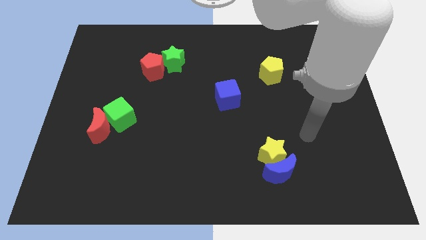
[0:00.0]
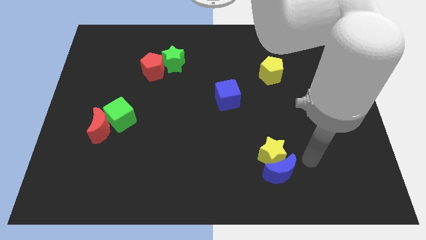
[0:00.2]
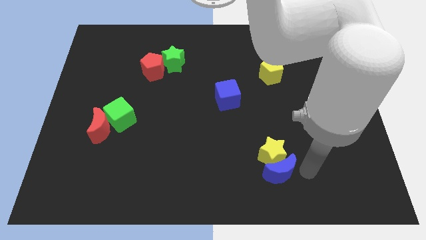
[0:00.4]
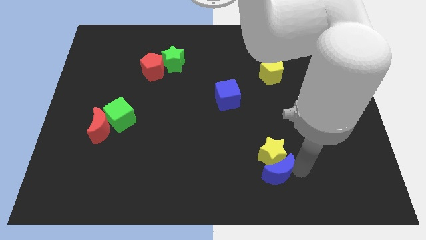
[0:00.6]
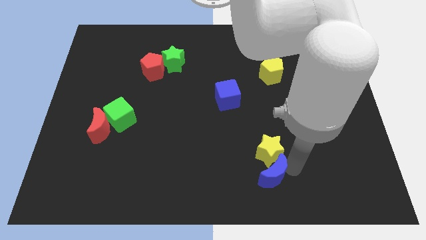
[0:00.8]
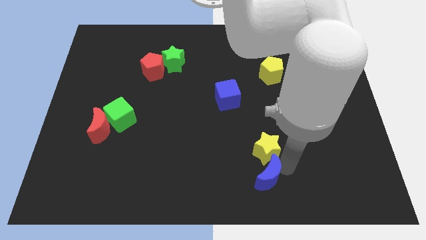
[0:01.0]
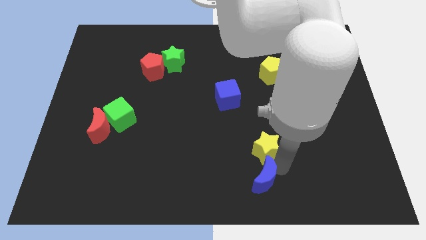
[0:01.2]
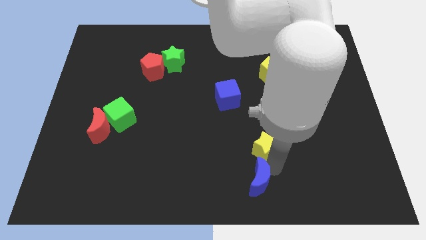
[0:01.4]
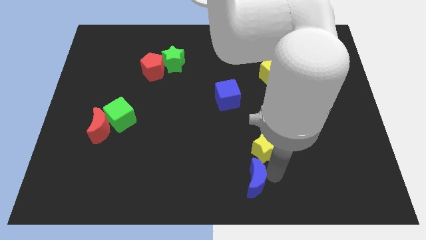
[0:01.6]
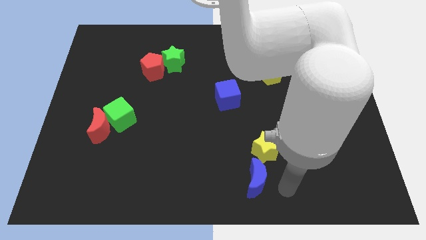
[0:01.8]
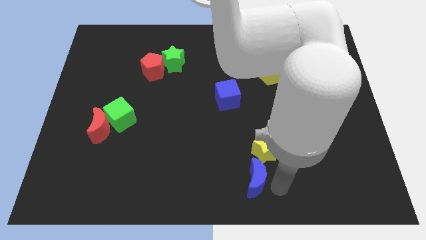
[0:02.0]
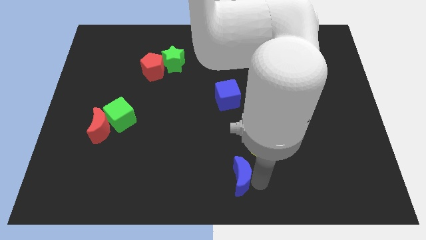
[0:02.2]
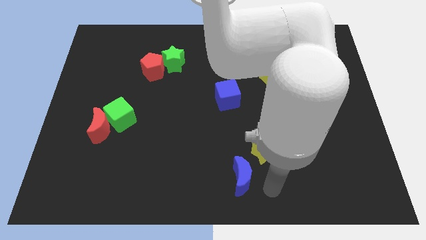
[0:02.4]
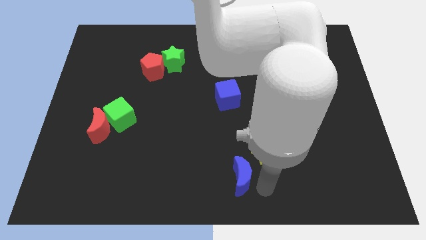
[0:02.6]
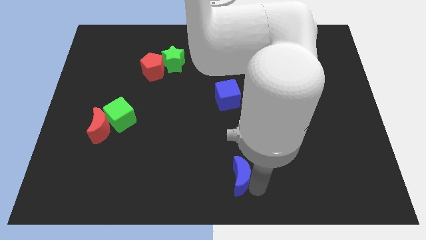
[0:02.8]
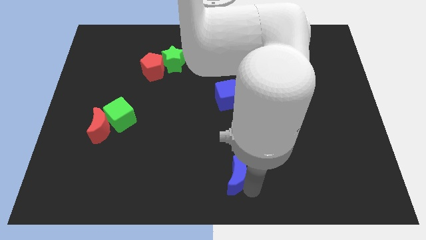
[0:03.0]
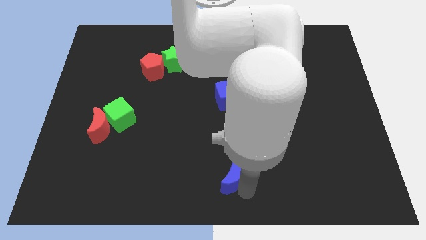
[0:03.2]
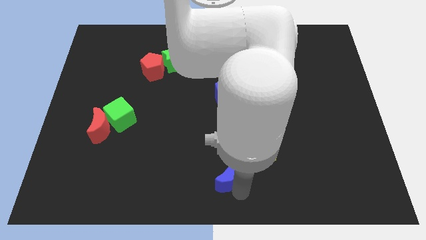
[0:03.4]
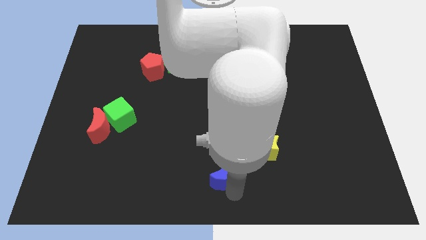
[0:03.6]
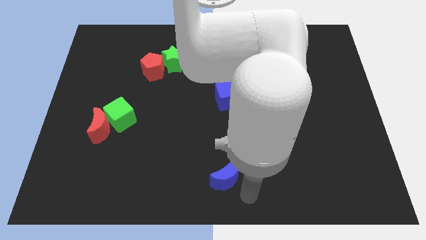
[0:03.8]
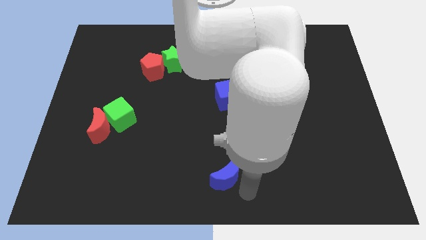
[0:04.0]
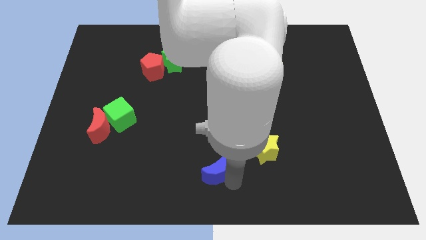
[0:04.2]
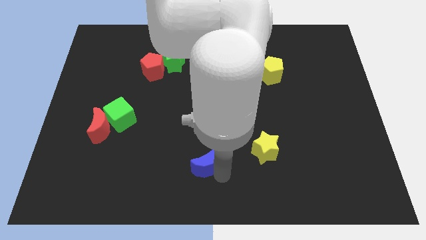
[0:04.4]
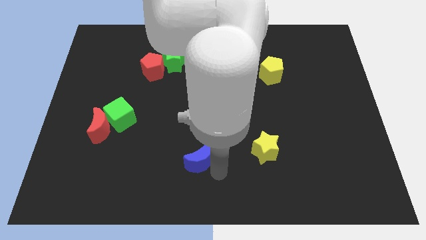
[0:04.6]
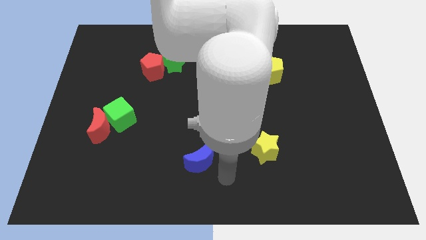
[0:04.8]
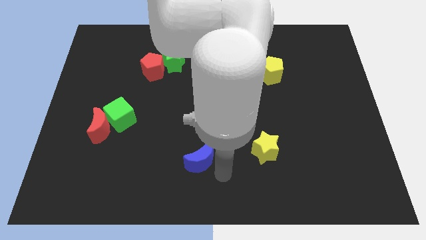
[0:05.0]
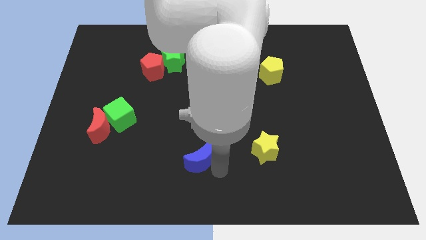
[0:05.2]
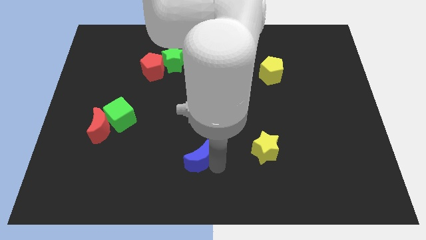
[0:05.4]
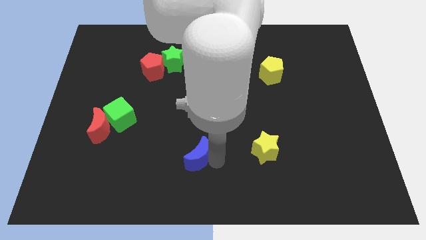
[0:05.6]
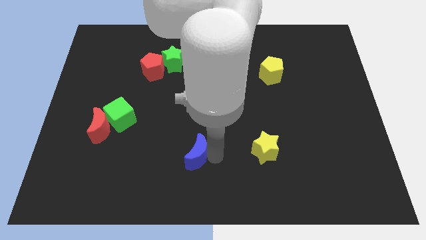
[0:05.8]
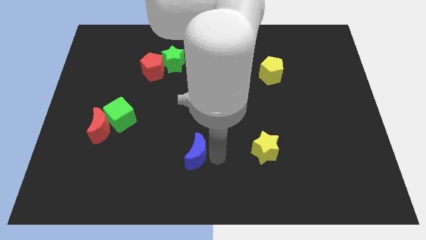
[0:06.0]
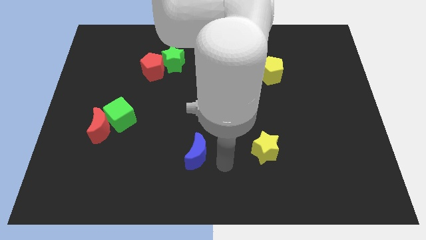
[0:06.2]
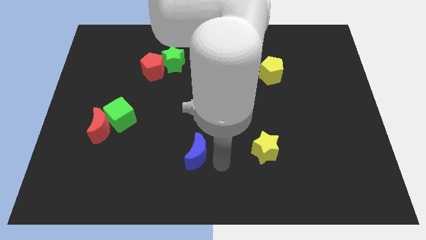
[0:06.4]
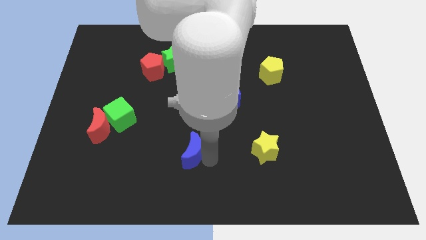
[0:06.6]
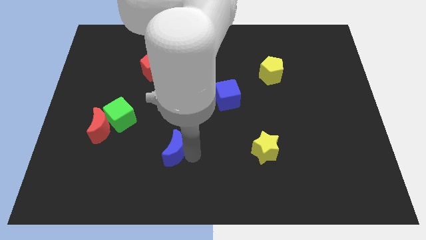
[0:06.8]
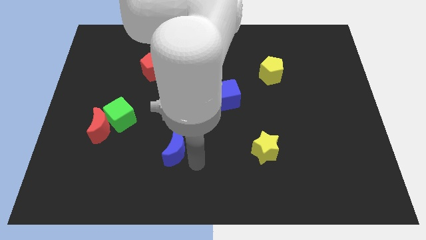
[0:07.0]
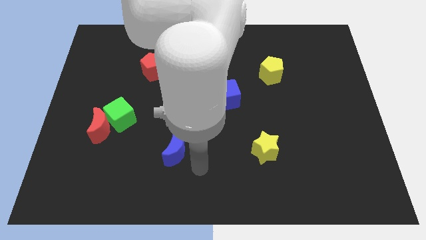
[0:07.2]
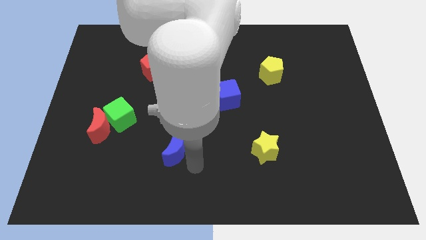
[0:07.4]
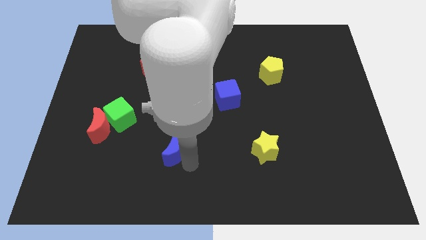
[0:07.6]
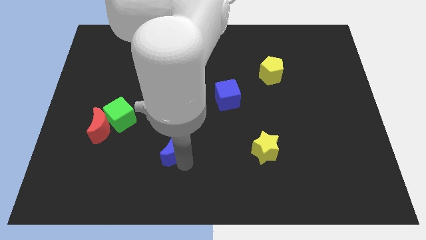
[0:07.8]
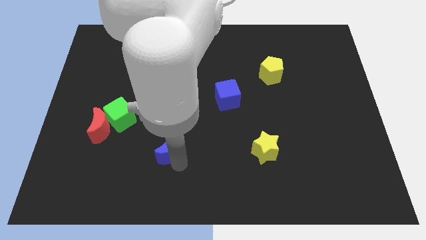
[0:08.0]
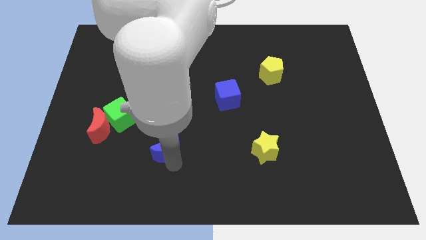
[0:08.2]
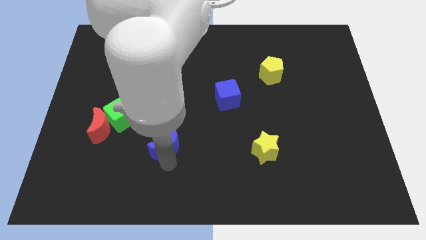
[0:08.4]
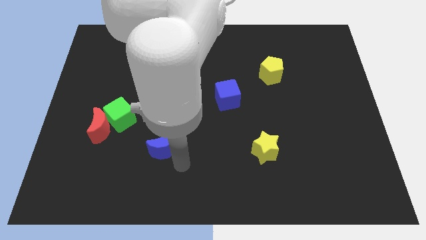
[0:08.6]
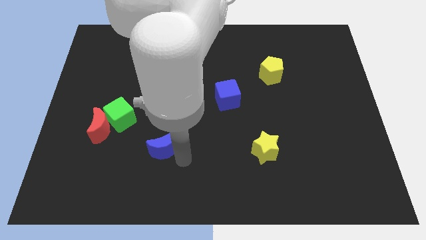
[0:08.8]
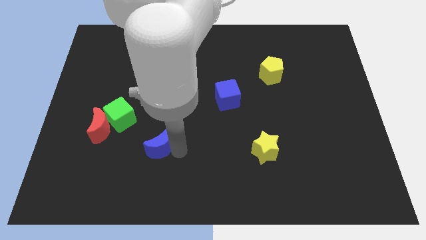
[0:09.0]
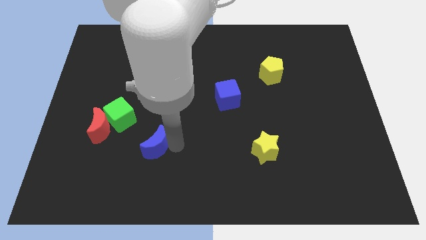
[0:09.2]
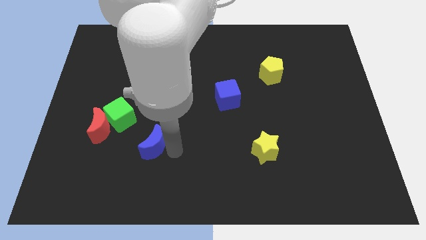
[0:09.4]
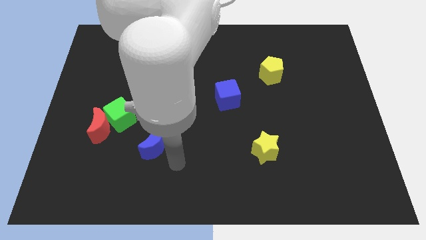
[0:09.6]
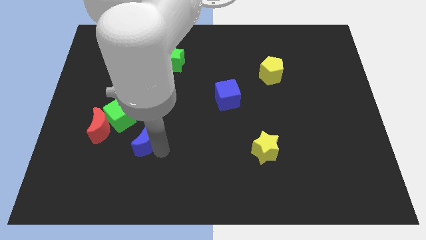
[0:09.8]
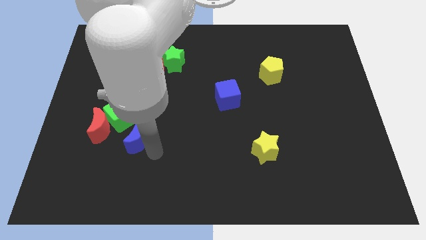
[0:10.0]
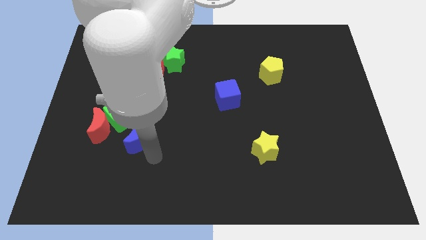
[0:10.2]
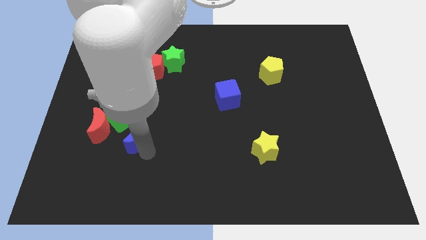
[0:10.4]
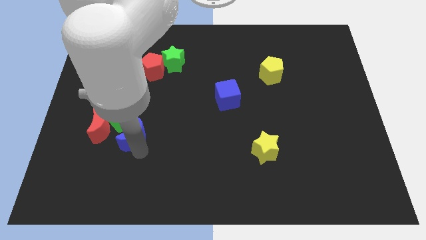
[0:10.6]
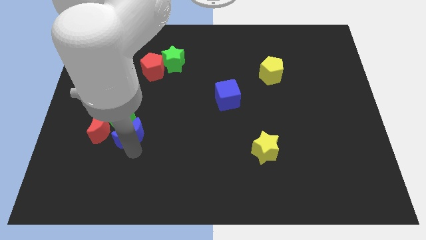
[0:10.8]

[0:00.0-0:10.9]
slide the blue moon to the green cube

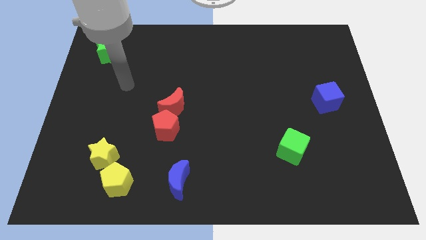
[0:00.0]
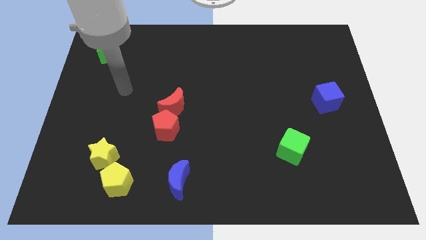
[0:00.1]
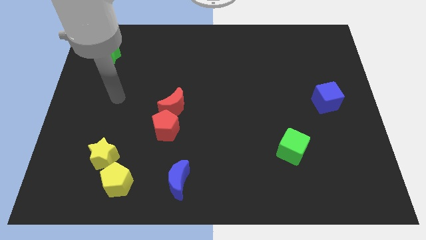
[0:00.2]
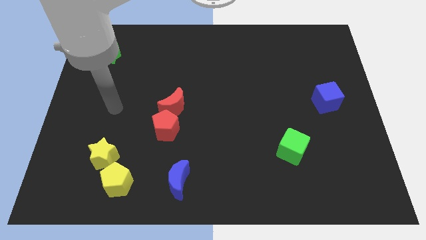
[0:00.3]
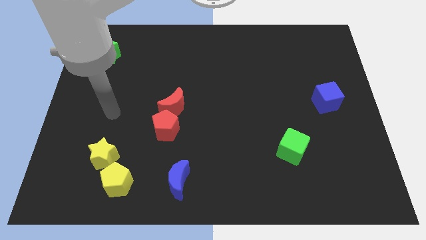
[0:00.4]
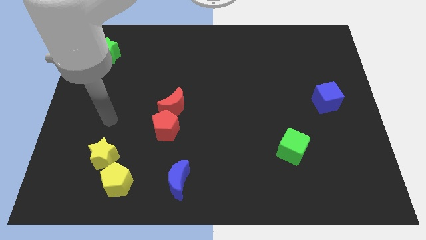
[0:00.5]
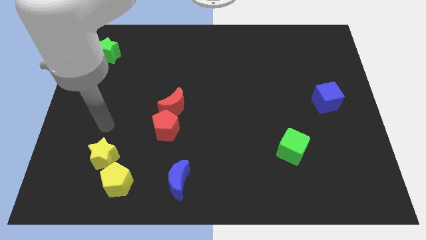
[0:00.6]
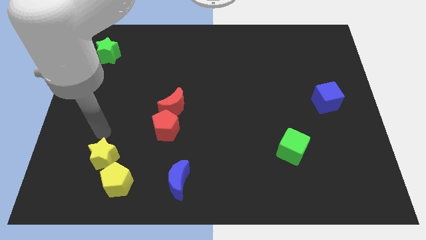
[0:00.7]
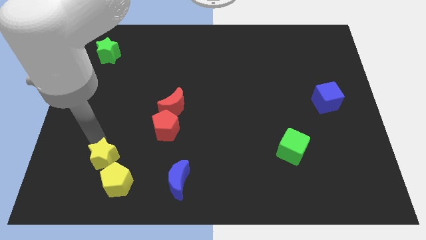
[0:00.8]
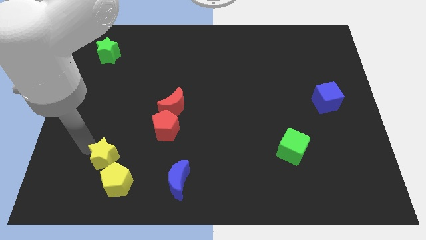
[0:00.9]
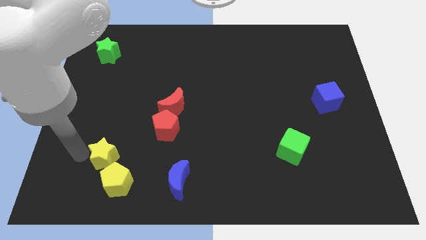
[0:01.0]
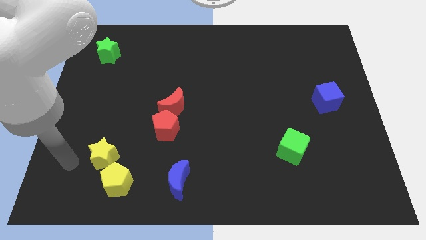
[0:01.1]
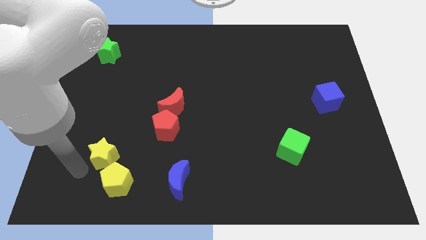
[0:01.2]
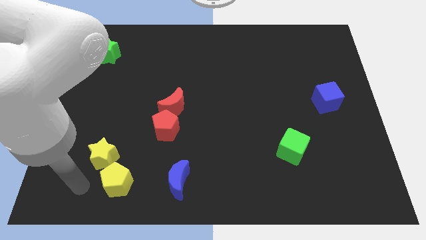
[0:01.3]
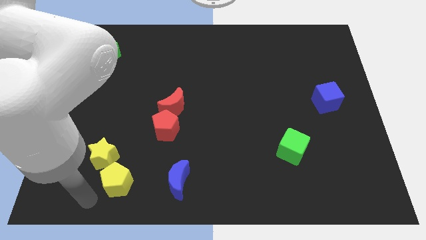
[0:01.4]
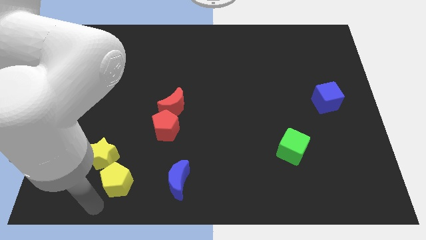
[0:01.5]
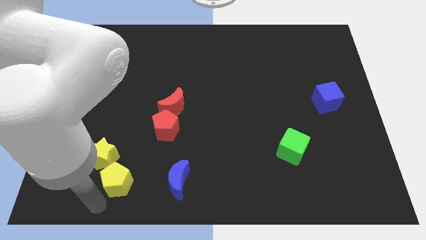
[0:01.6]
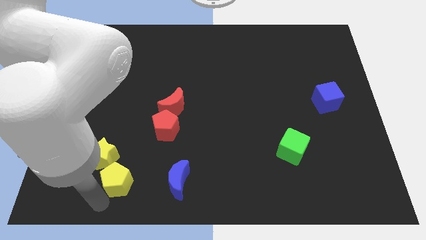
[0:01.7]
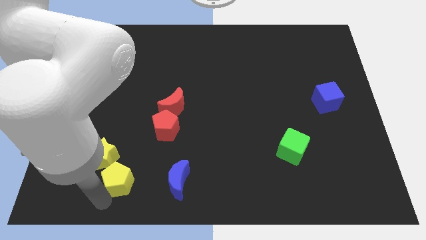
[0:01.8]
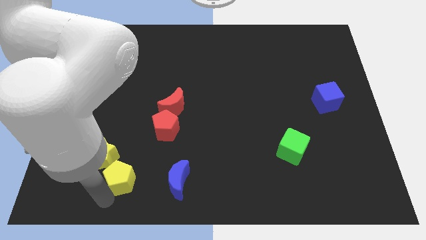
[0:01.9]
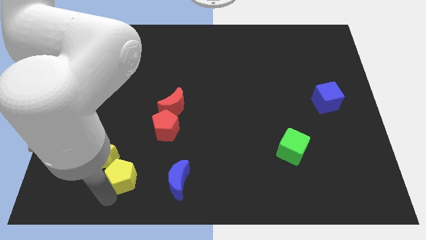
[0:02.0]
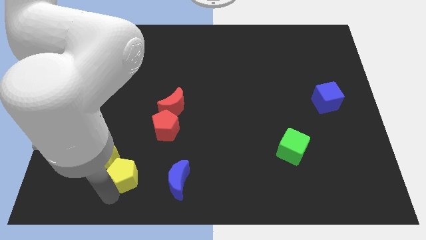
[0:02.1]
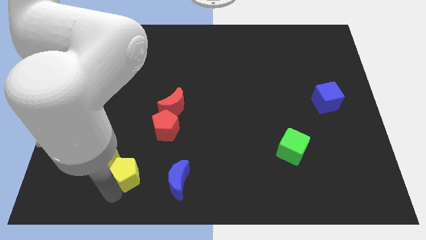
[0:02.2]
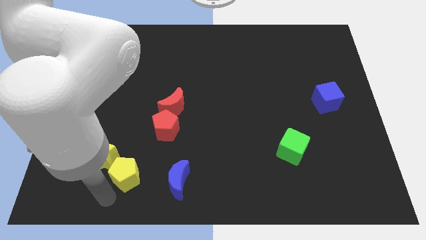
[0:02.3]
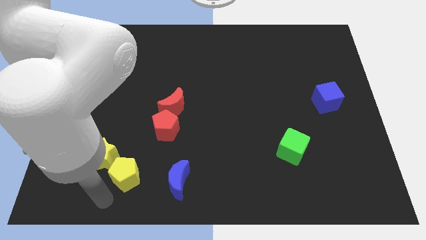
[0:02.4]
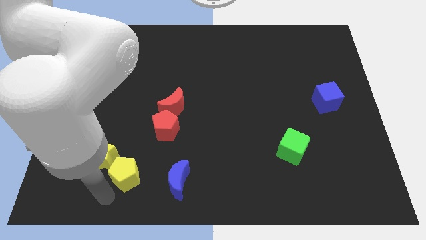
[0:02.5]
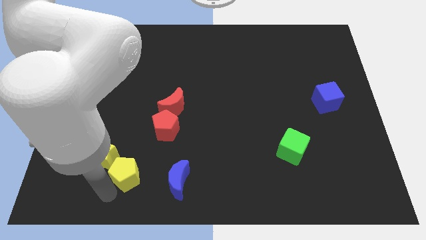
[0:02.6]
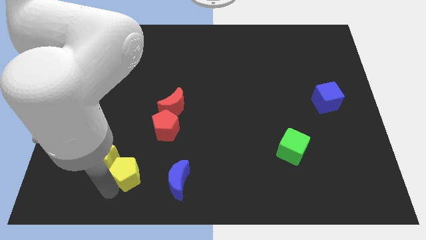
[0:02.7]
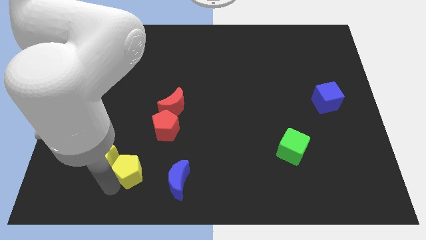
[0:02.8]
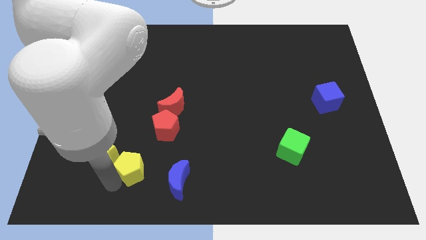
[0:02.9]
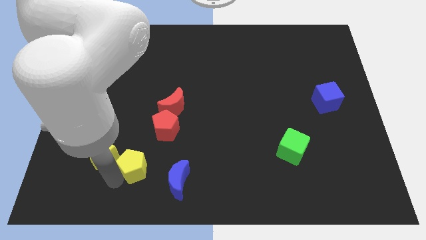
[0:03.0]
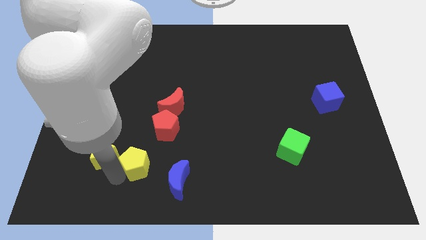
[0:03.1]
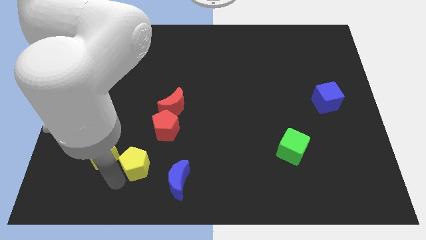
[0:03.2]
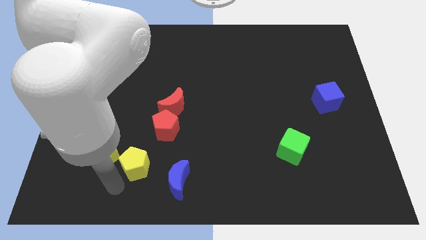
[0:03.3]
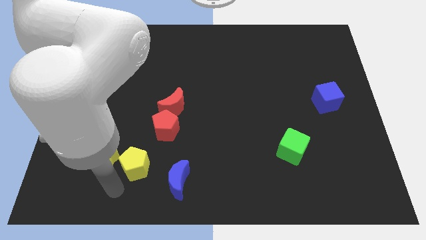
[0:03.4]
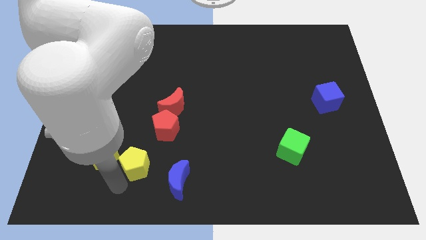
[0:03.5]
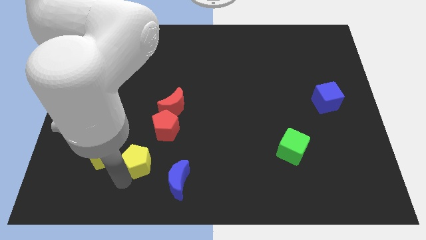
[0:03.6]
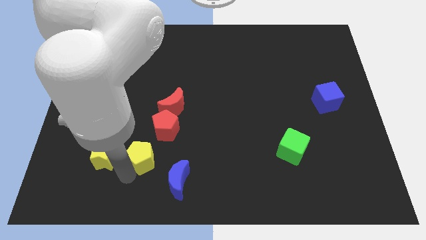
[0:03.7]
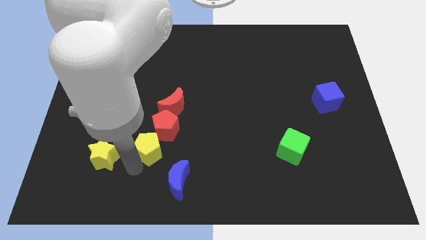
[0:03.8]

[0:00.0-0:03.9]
move the yellow pentagon close to the red pentagon
